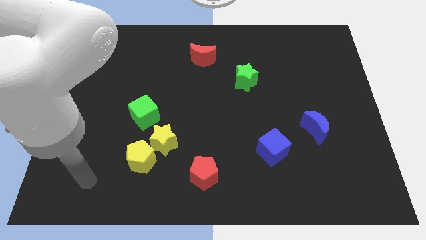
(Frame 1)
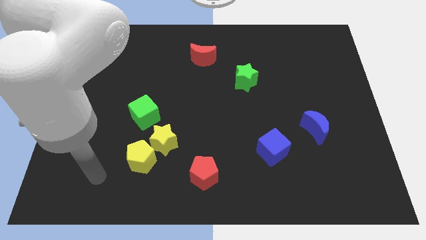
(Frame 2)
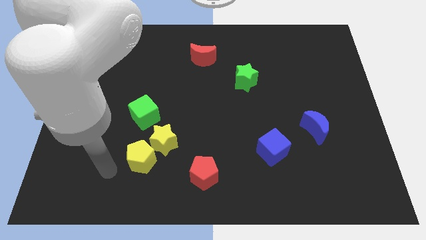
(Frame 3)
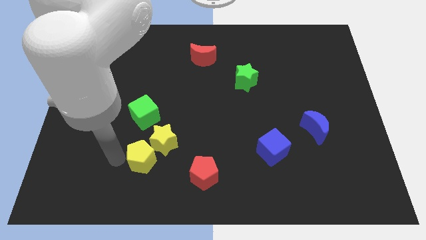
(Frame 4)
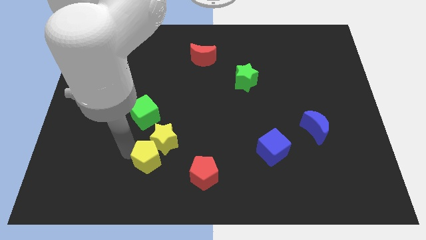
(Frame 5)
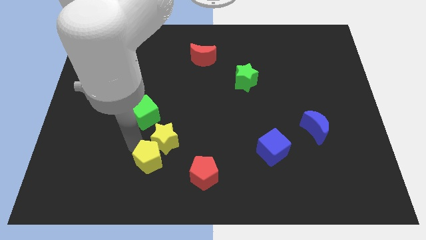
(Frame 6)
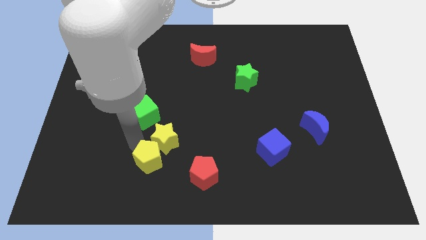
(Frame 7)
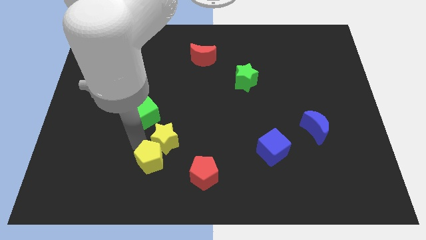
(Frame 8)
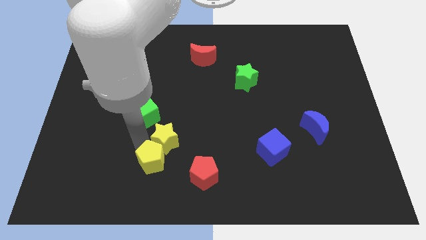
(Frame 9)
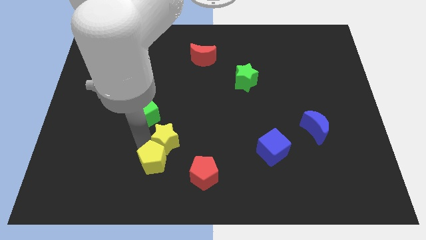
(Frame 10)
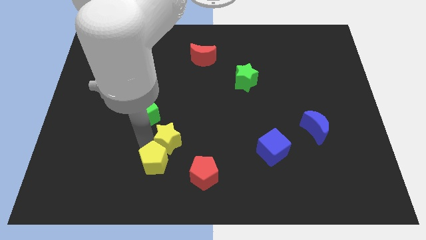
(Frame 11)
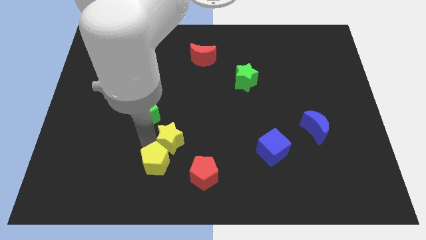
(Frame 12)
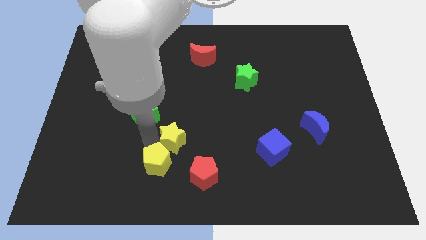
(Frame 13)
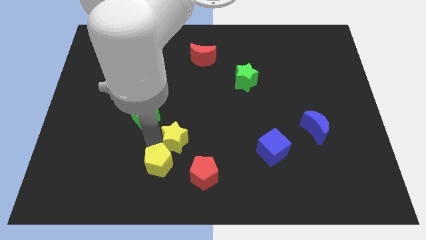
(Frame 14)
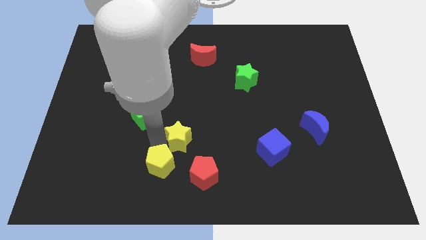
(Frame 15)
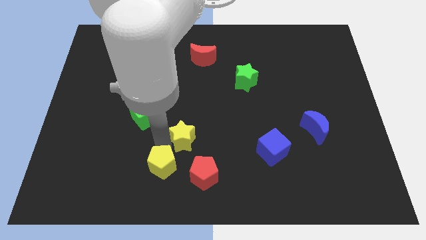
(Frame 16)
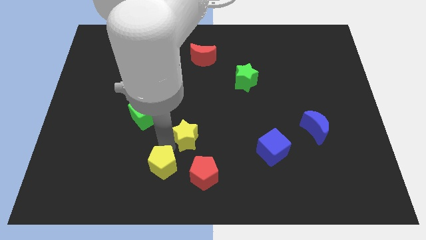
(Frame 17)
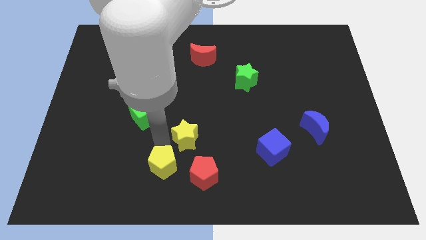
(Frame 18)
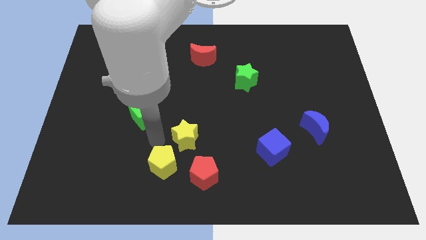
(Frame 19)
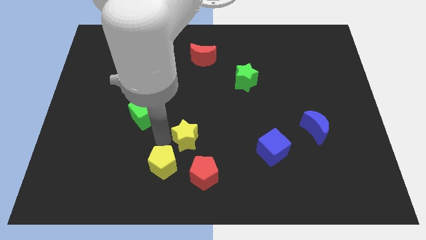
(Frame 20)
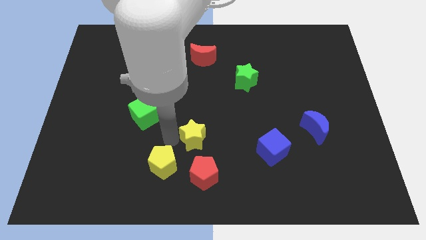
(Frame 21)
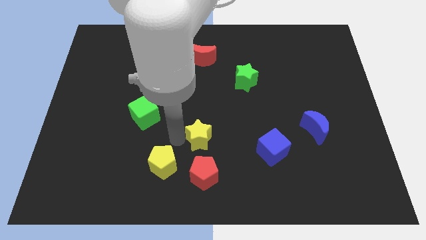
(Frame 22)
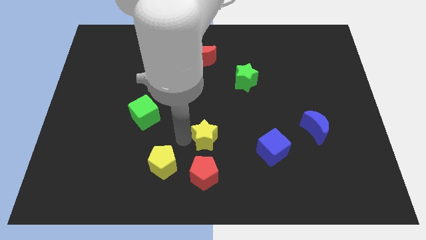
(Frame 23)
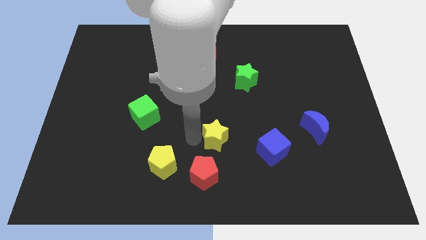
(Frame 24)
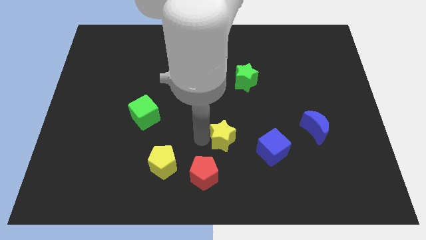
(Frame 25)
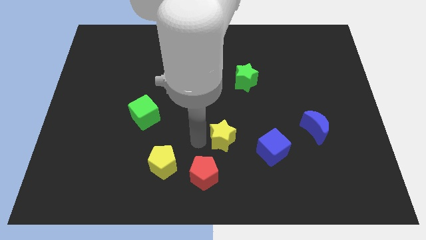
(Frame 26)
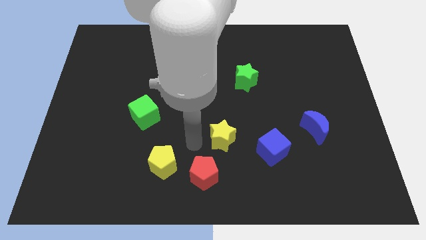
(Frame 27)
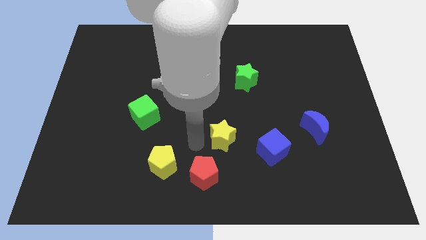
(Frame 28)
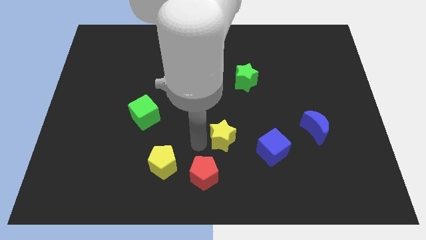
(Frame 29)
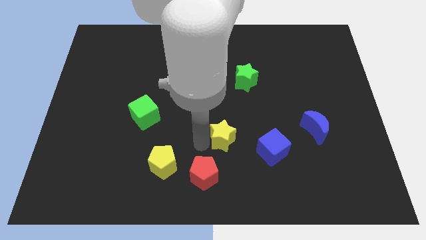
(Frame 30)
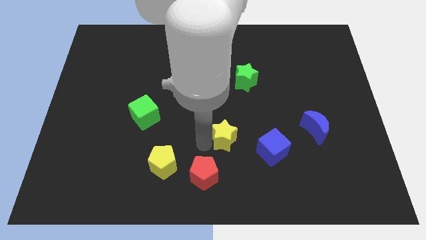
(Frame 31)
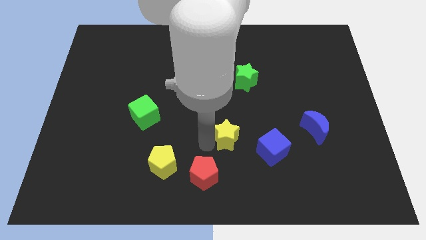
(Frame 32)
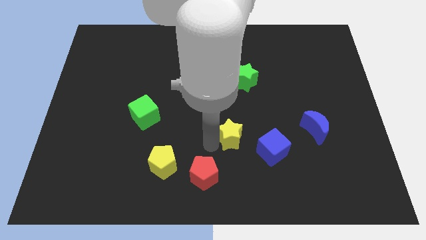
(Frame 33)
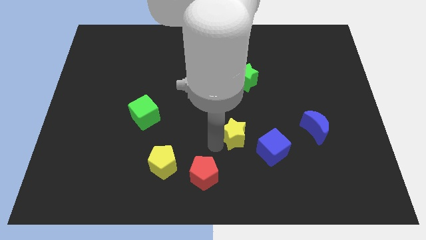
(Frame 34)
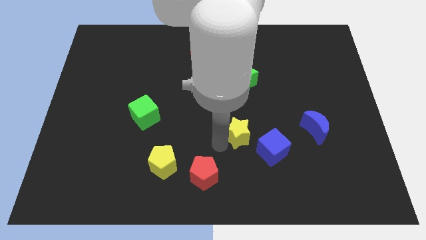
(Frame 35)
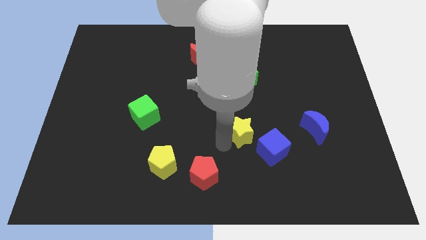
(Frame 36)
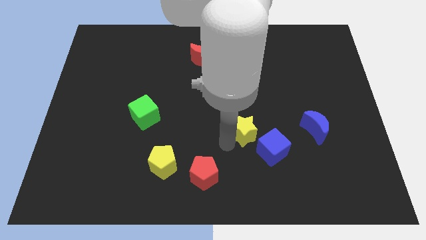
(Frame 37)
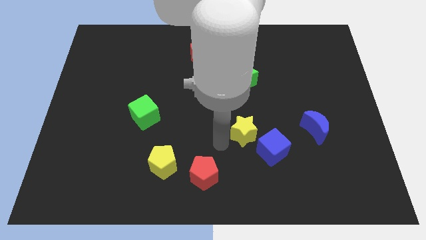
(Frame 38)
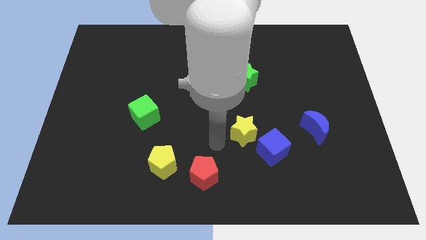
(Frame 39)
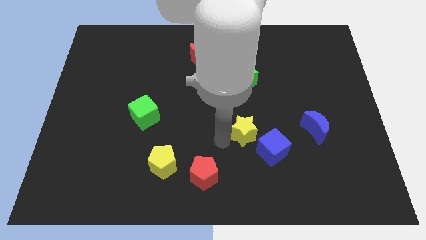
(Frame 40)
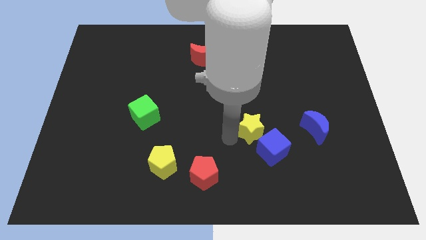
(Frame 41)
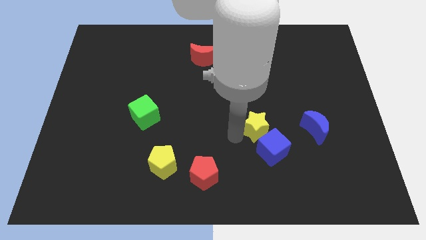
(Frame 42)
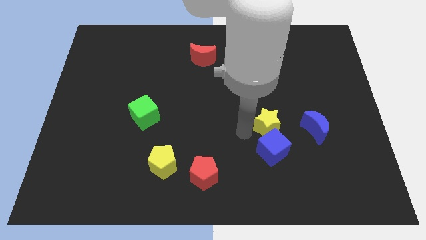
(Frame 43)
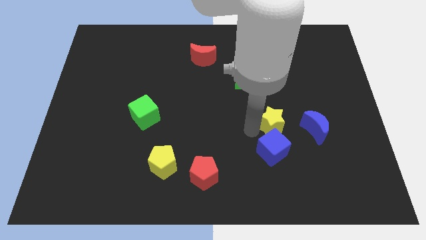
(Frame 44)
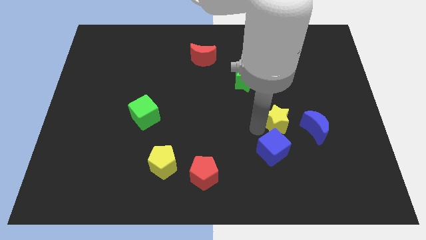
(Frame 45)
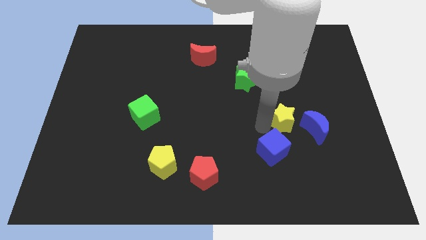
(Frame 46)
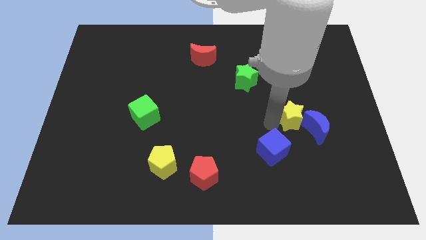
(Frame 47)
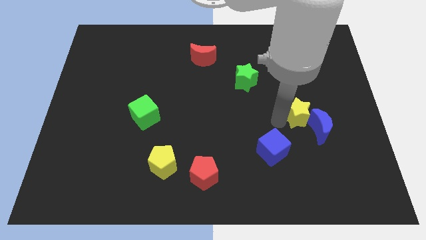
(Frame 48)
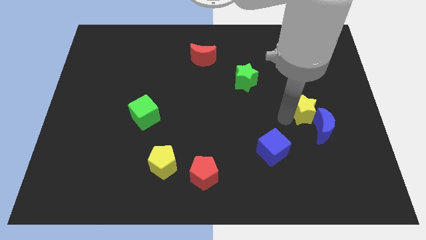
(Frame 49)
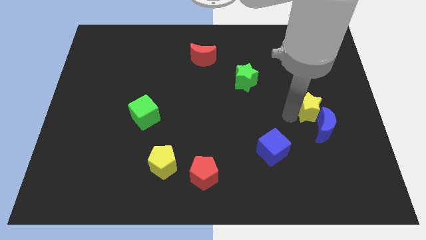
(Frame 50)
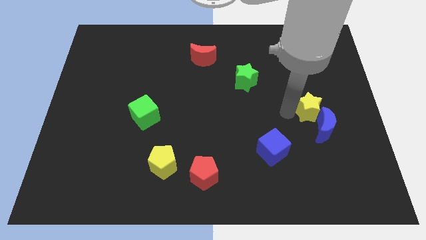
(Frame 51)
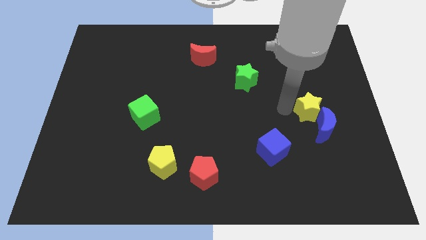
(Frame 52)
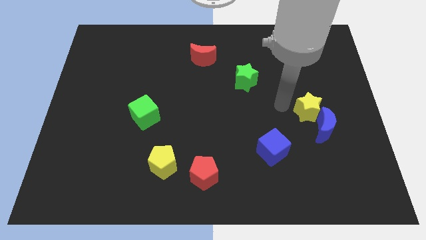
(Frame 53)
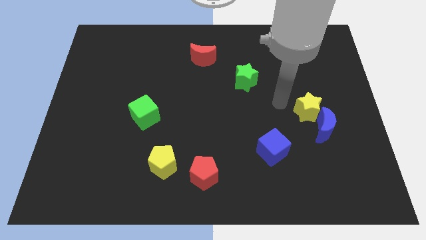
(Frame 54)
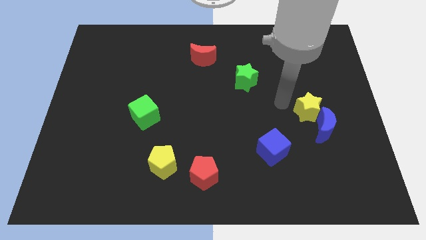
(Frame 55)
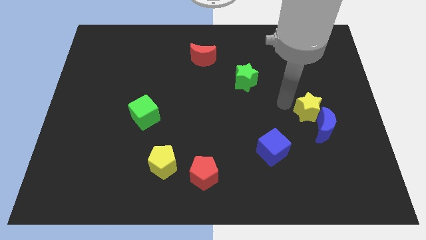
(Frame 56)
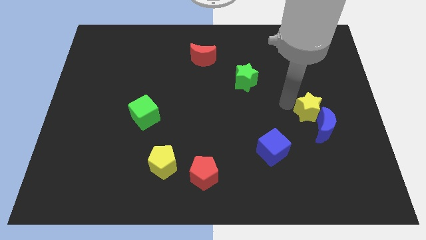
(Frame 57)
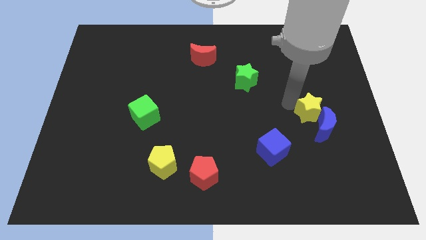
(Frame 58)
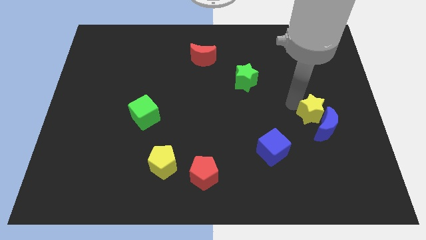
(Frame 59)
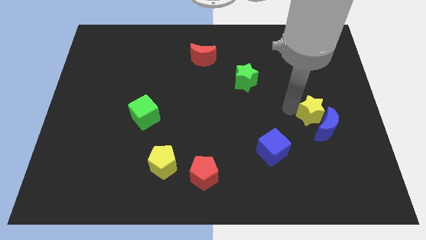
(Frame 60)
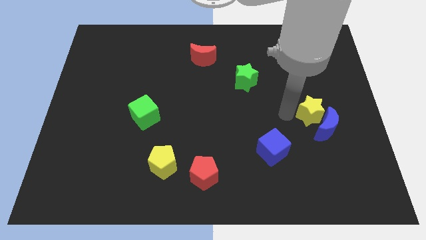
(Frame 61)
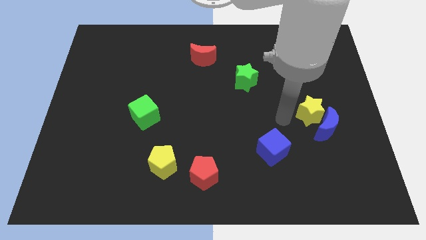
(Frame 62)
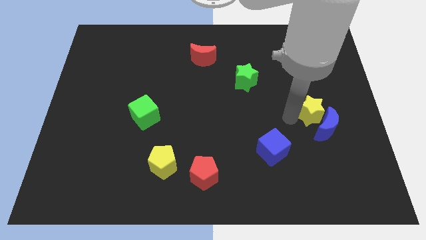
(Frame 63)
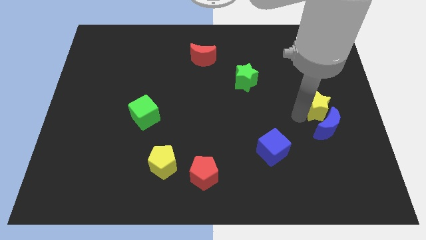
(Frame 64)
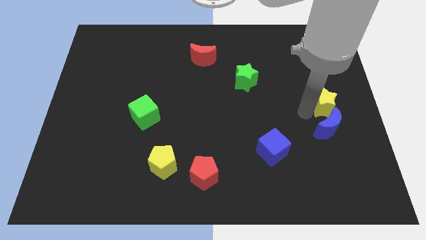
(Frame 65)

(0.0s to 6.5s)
move the yellow star to the right side
